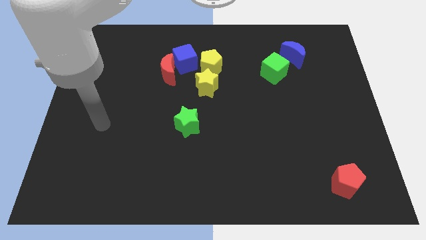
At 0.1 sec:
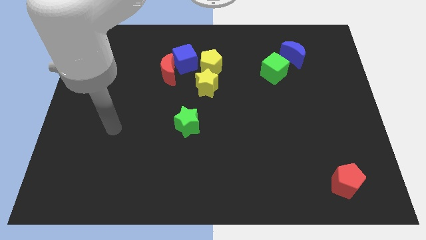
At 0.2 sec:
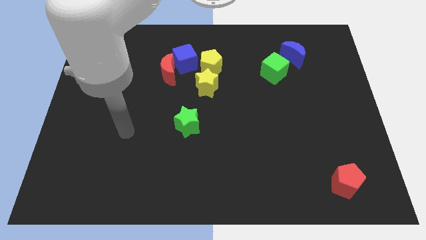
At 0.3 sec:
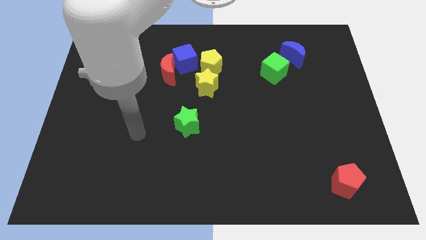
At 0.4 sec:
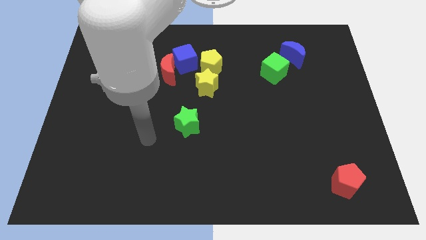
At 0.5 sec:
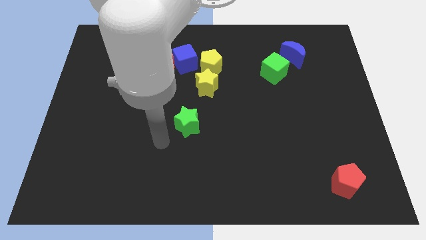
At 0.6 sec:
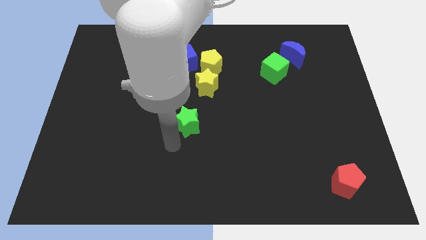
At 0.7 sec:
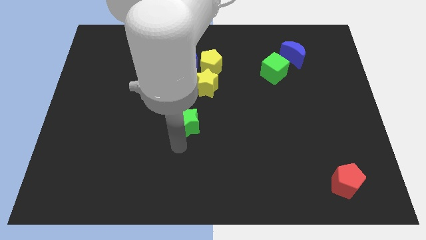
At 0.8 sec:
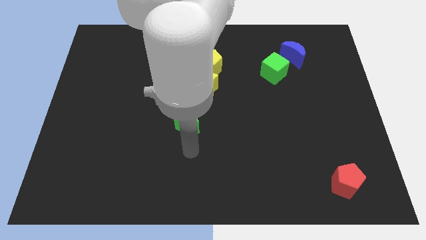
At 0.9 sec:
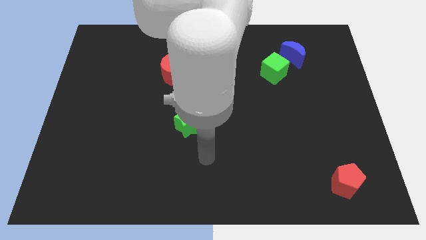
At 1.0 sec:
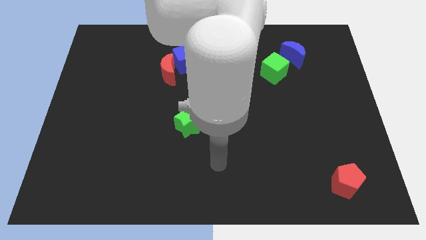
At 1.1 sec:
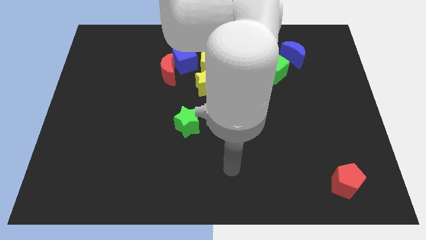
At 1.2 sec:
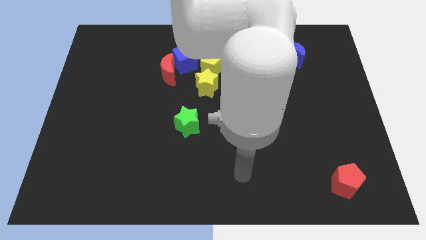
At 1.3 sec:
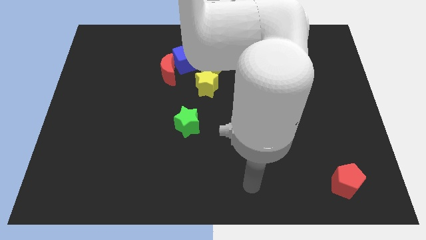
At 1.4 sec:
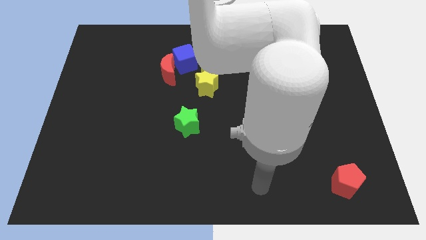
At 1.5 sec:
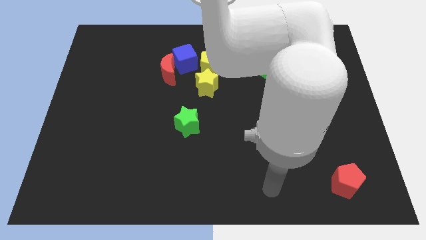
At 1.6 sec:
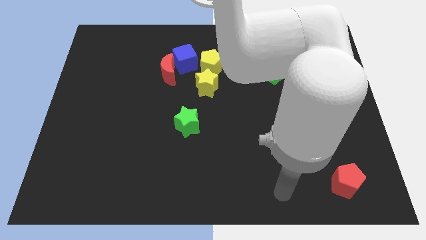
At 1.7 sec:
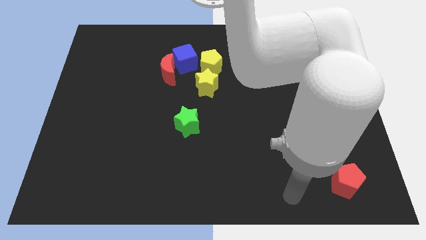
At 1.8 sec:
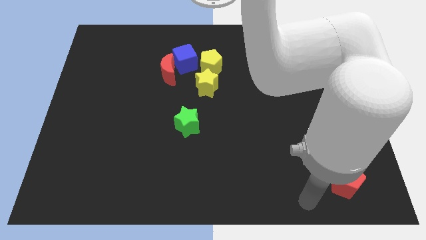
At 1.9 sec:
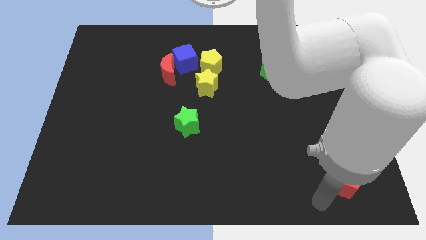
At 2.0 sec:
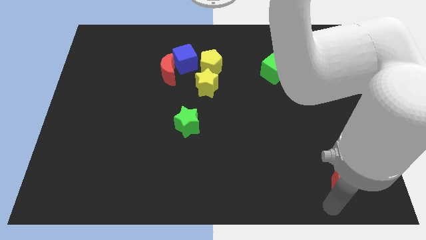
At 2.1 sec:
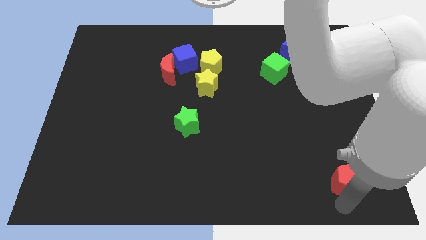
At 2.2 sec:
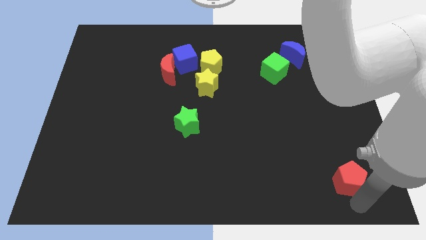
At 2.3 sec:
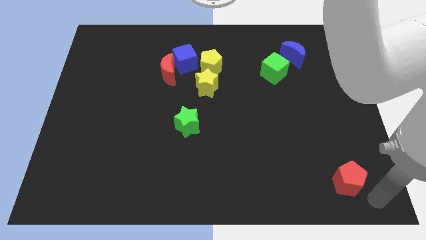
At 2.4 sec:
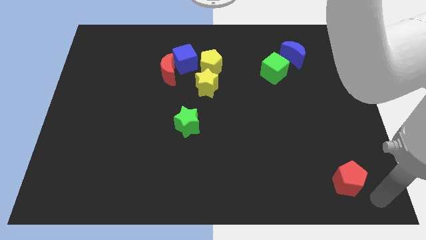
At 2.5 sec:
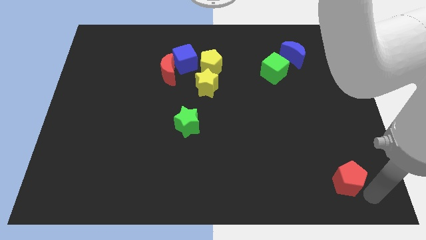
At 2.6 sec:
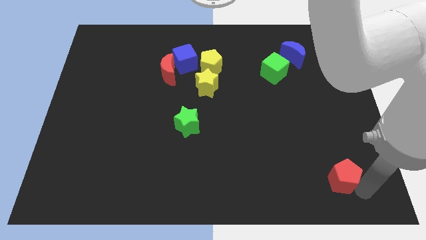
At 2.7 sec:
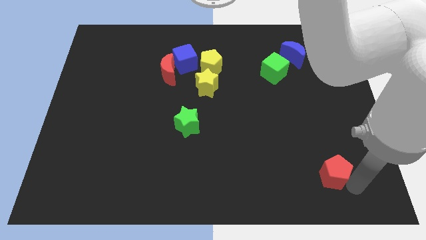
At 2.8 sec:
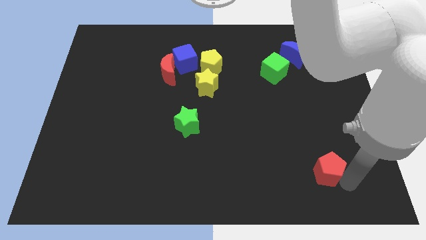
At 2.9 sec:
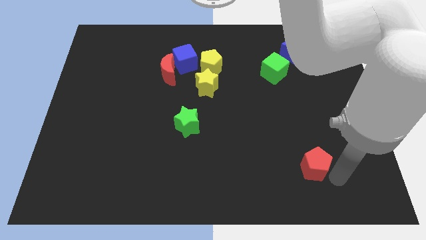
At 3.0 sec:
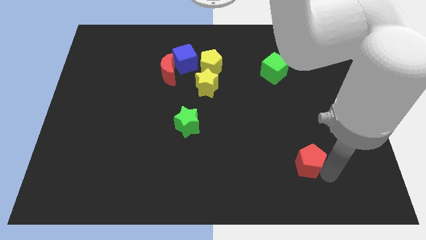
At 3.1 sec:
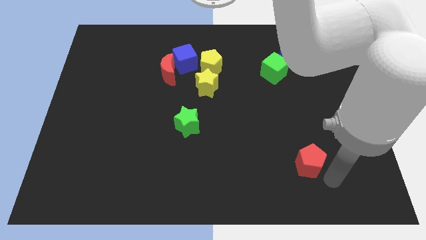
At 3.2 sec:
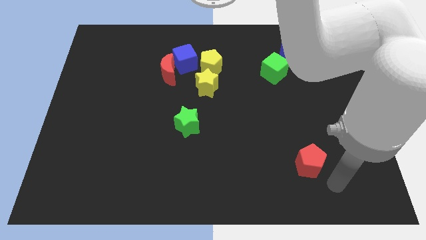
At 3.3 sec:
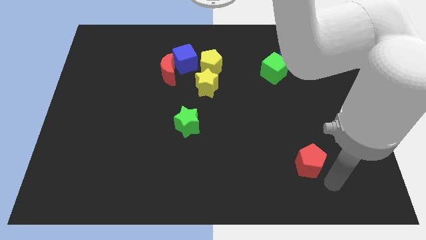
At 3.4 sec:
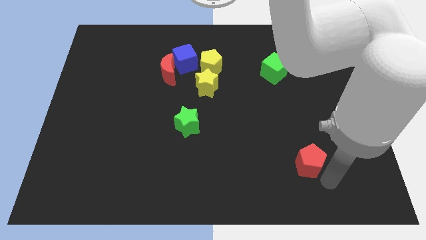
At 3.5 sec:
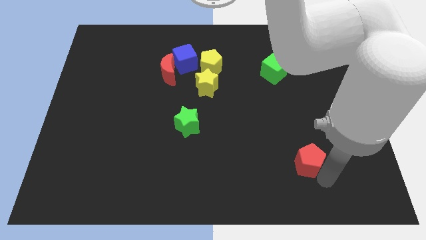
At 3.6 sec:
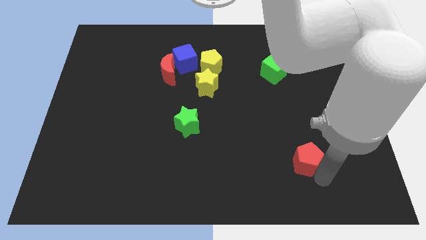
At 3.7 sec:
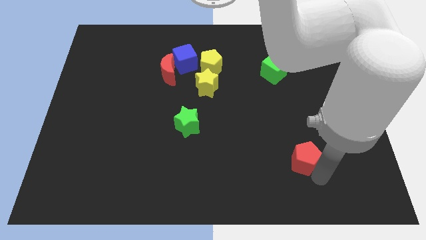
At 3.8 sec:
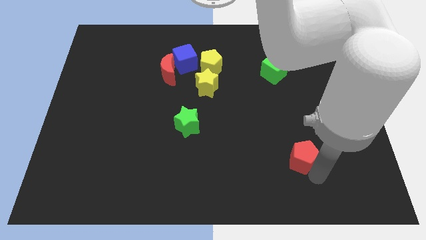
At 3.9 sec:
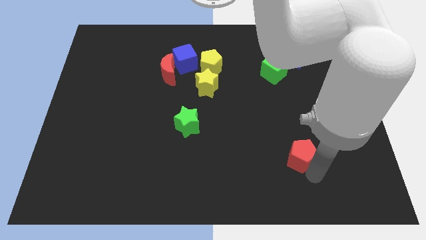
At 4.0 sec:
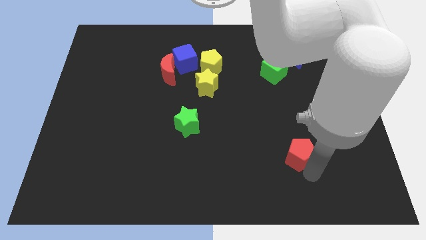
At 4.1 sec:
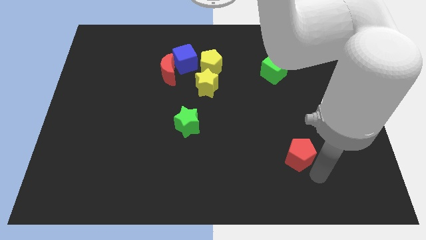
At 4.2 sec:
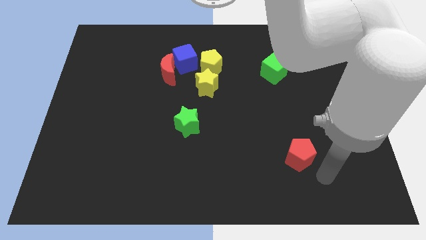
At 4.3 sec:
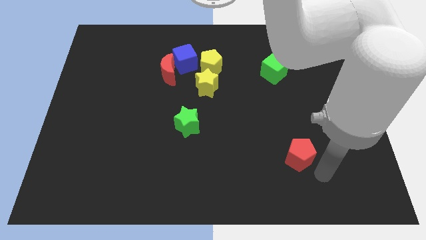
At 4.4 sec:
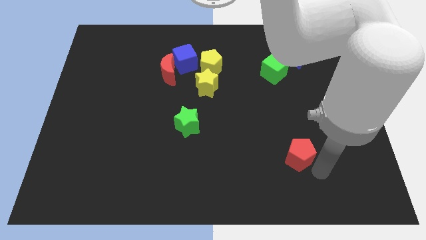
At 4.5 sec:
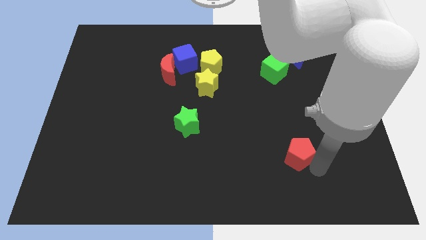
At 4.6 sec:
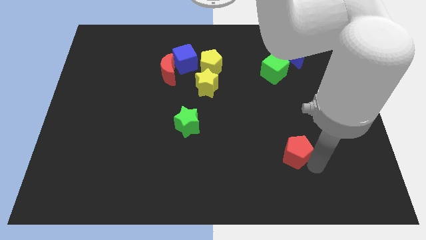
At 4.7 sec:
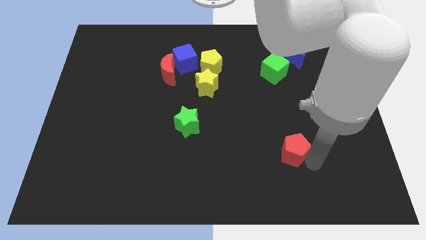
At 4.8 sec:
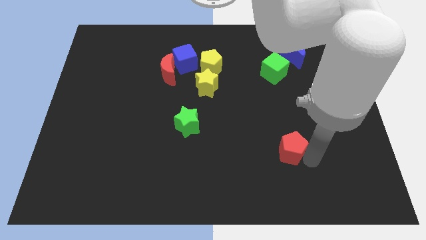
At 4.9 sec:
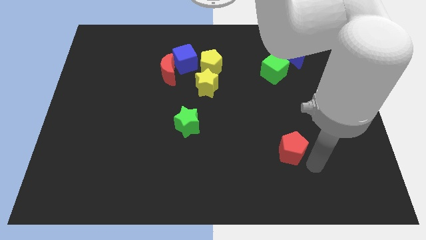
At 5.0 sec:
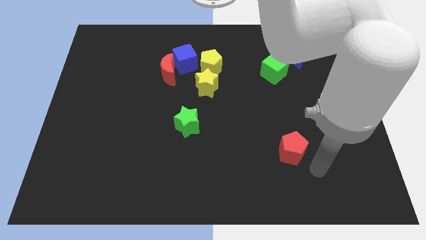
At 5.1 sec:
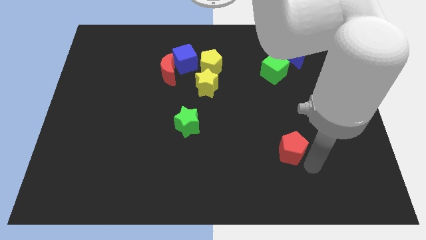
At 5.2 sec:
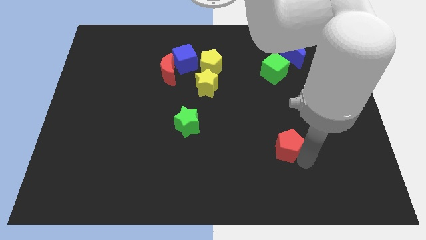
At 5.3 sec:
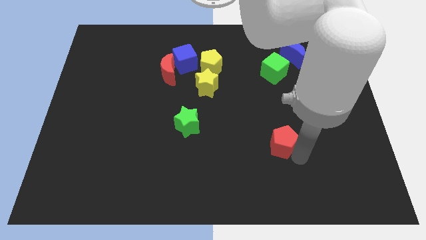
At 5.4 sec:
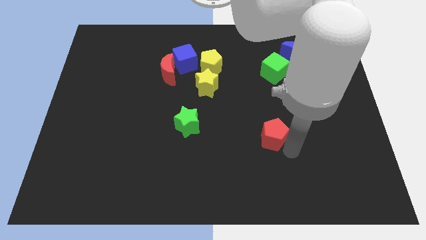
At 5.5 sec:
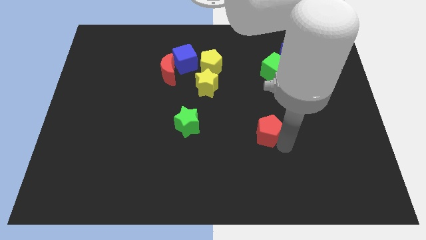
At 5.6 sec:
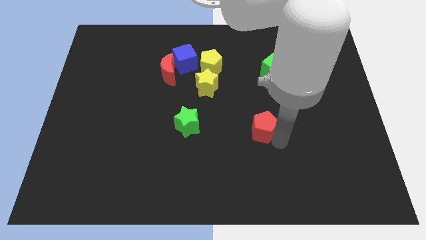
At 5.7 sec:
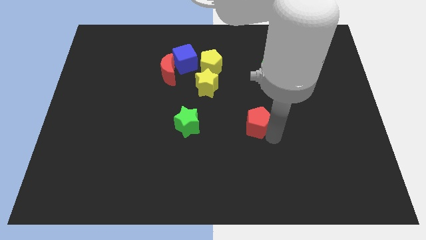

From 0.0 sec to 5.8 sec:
push the red pentagon to the center
